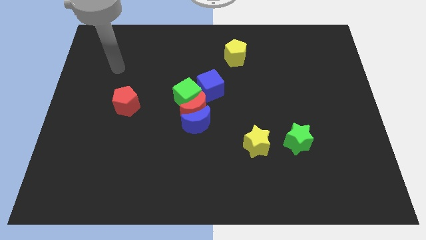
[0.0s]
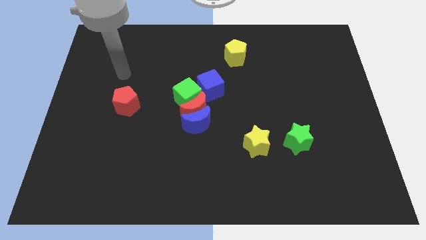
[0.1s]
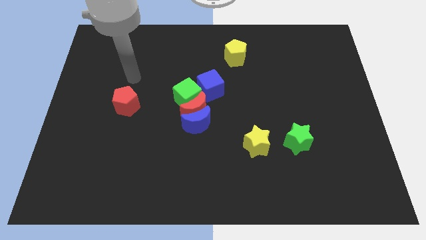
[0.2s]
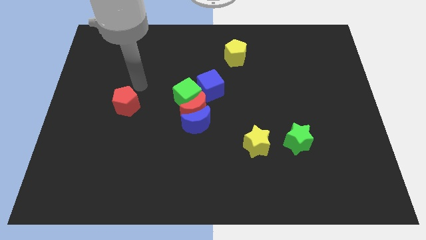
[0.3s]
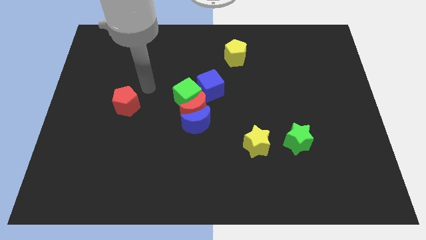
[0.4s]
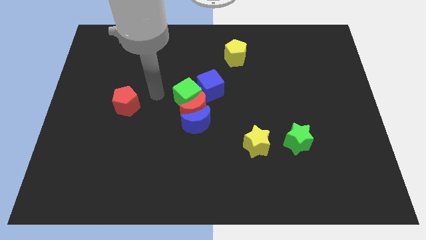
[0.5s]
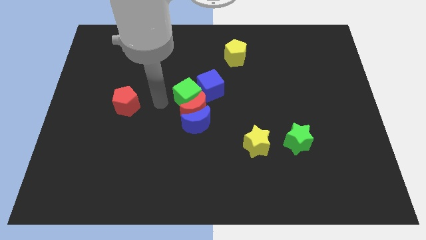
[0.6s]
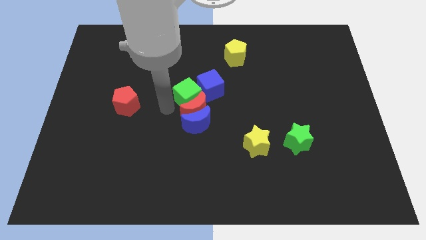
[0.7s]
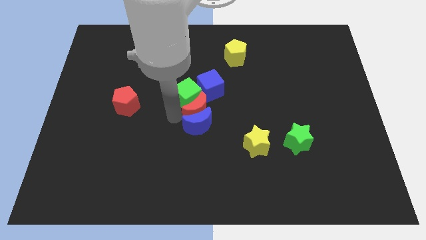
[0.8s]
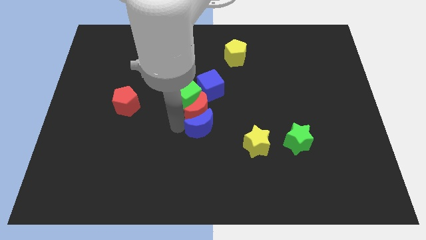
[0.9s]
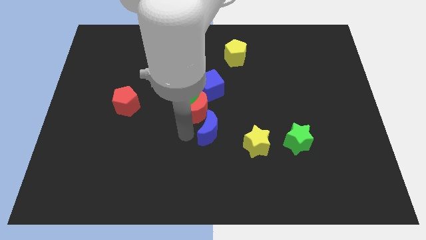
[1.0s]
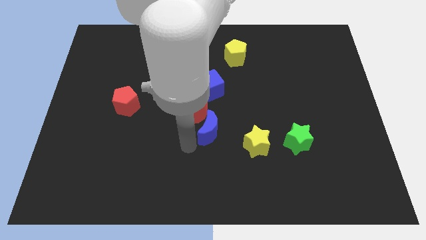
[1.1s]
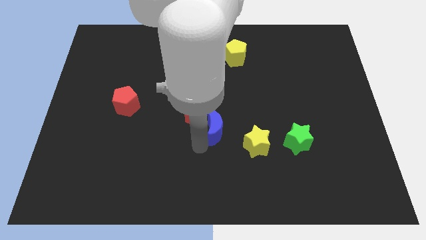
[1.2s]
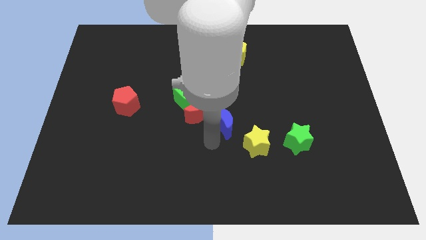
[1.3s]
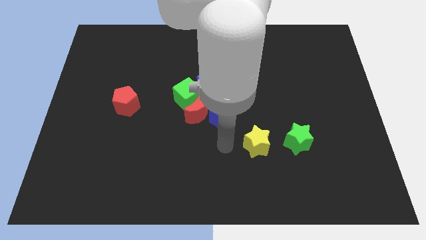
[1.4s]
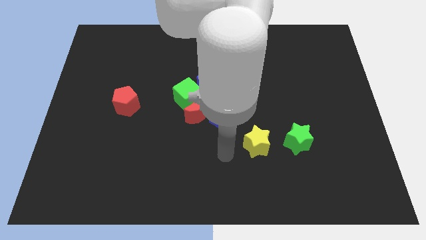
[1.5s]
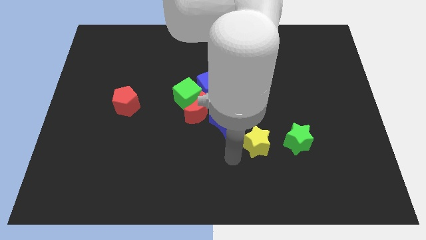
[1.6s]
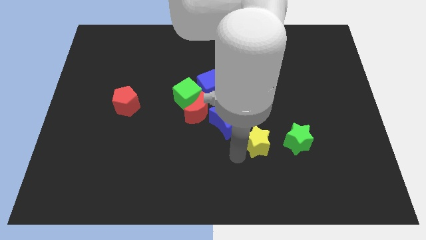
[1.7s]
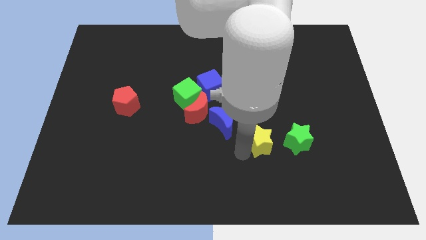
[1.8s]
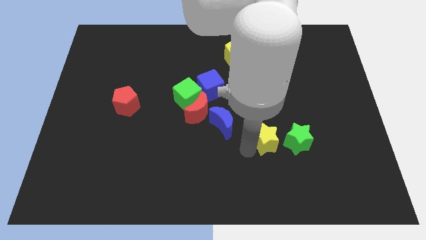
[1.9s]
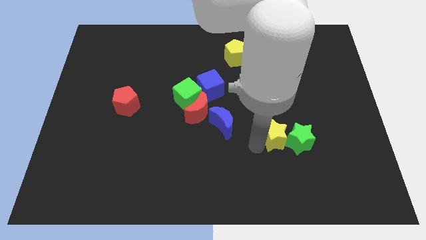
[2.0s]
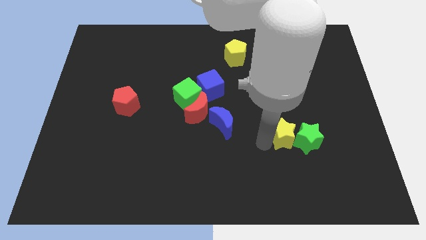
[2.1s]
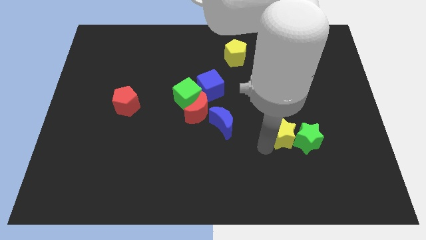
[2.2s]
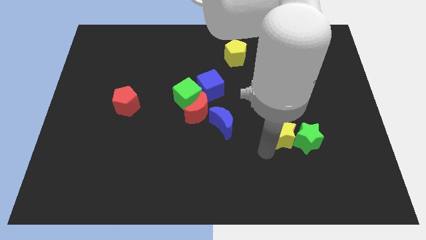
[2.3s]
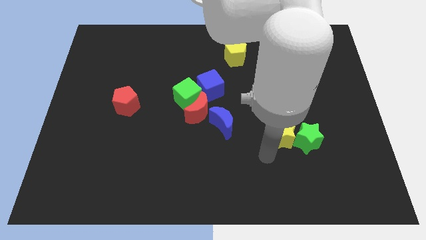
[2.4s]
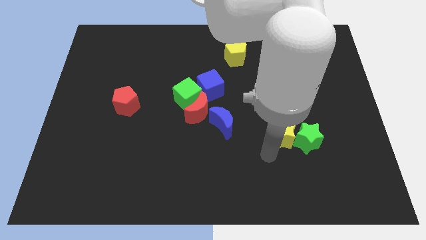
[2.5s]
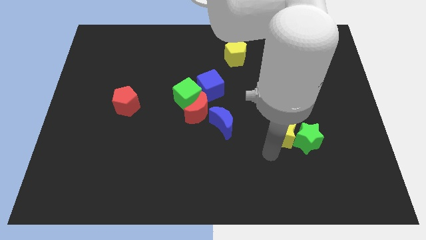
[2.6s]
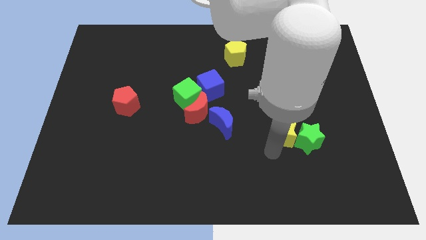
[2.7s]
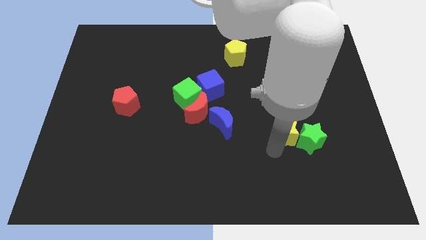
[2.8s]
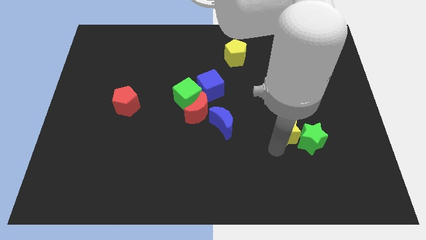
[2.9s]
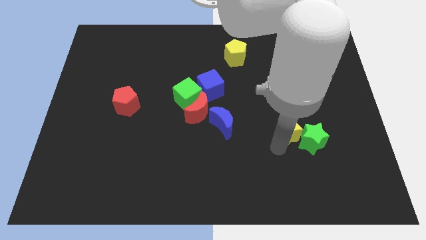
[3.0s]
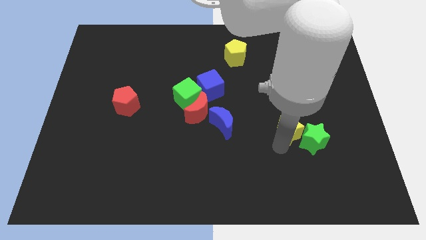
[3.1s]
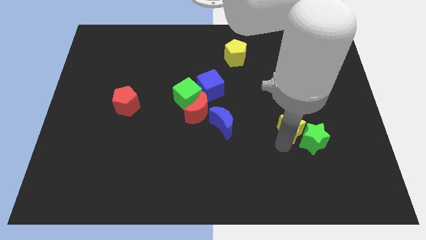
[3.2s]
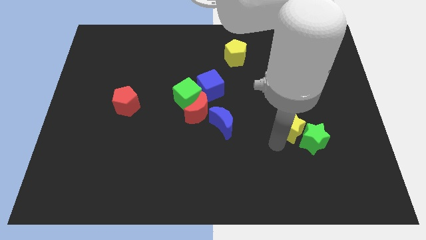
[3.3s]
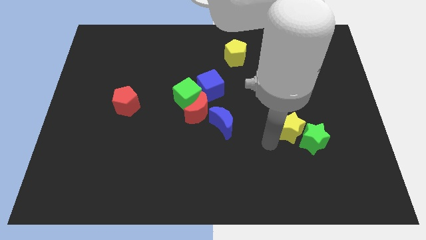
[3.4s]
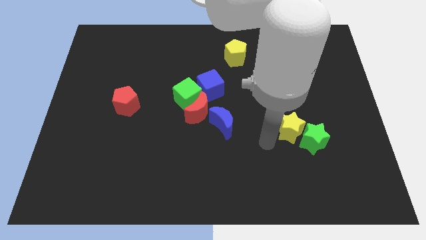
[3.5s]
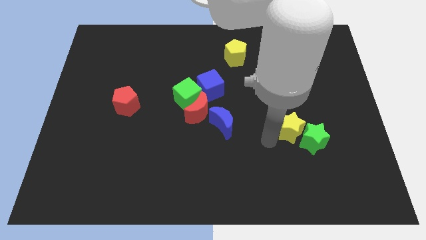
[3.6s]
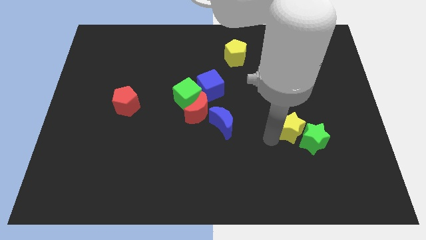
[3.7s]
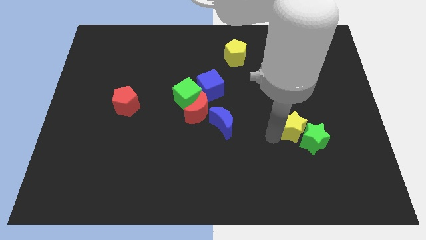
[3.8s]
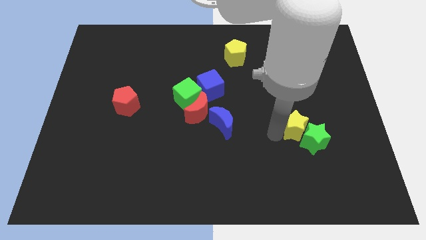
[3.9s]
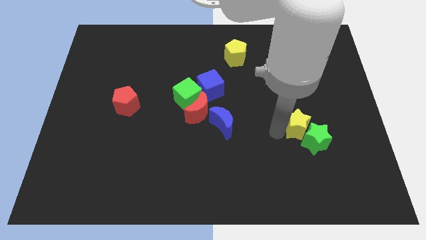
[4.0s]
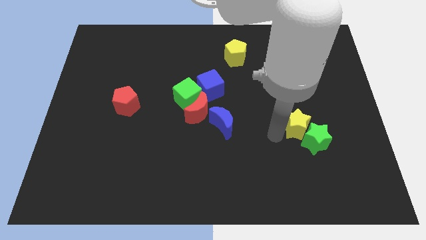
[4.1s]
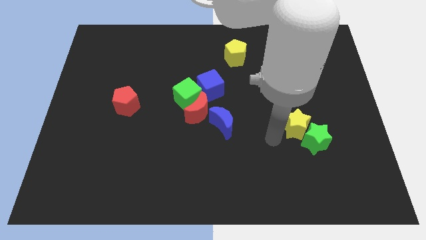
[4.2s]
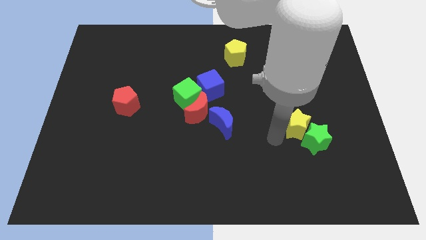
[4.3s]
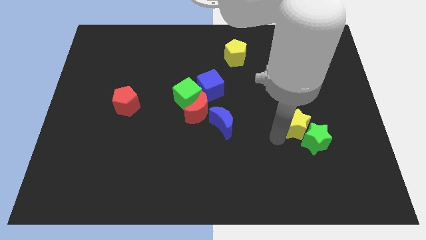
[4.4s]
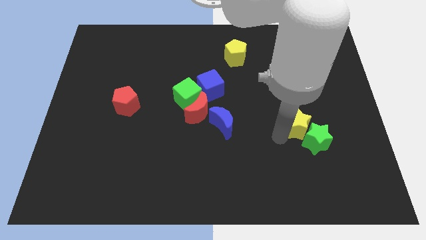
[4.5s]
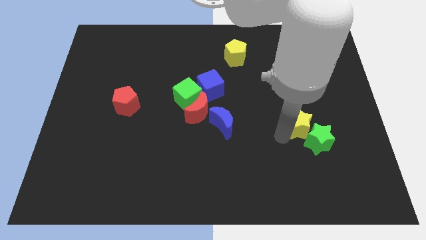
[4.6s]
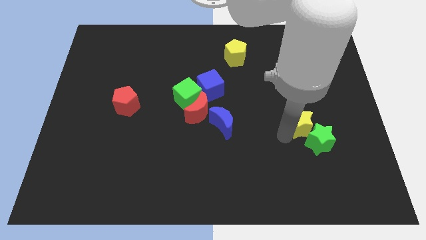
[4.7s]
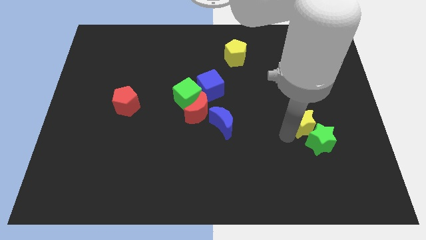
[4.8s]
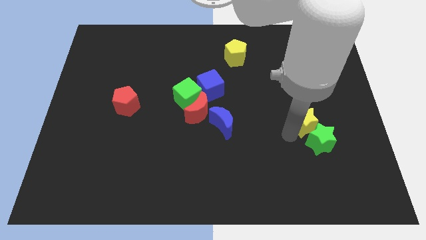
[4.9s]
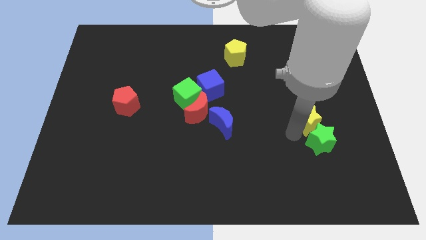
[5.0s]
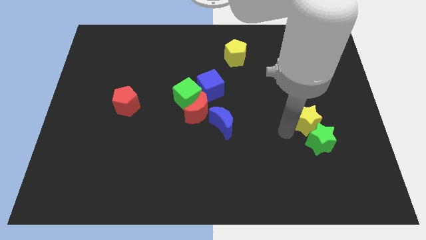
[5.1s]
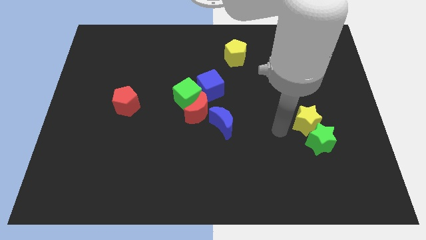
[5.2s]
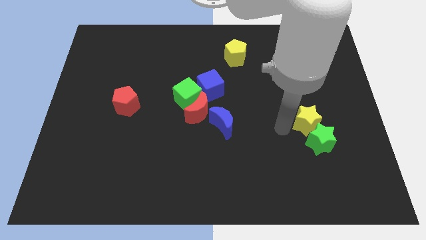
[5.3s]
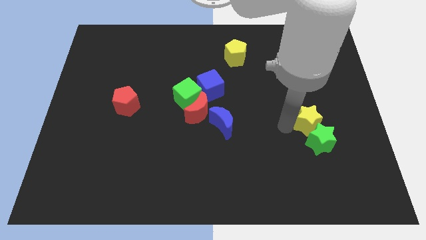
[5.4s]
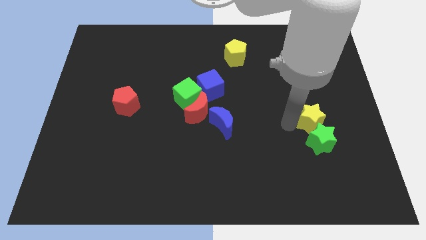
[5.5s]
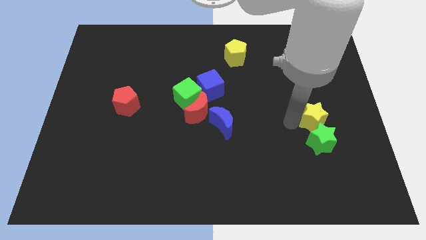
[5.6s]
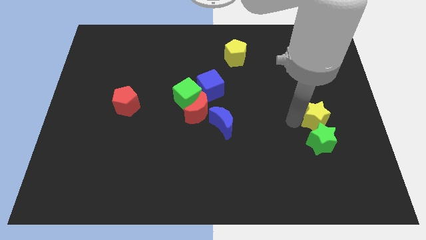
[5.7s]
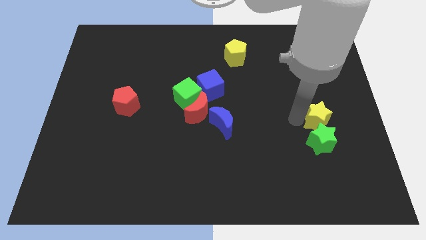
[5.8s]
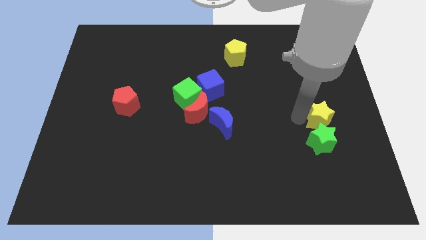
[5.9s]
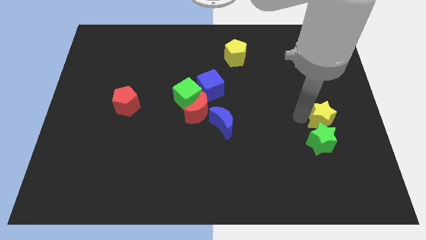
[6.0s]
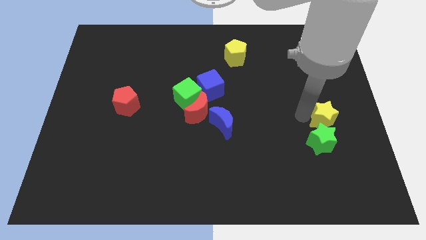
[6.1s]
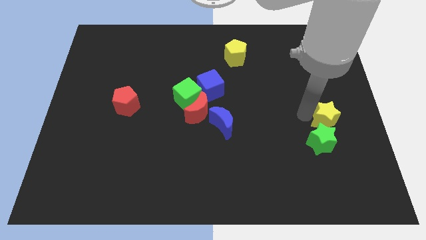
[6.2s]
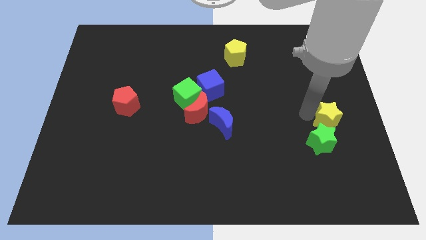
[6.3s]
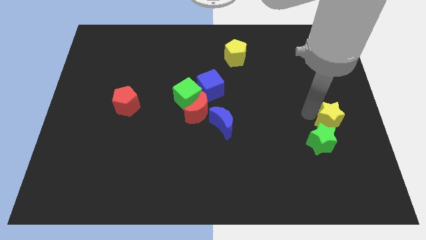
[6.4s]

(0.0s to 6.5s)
put the yellow star to the center right
